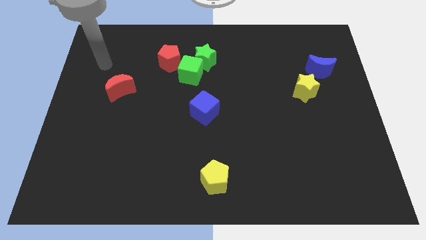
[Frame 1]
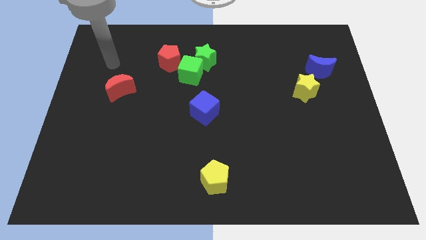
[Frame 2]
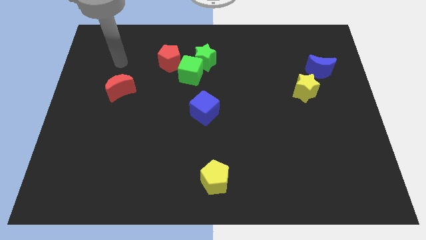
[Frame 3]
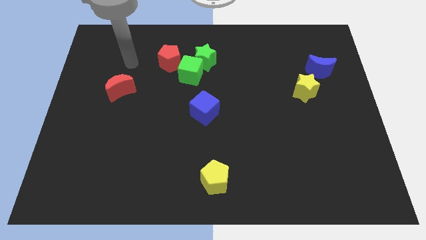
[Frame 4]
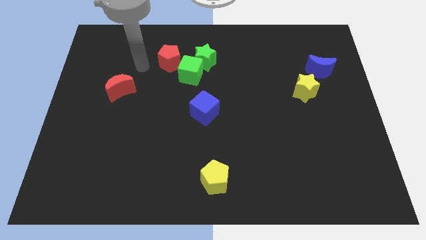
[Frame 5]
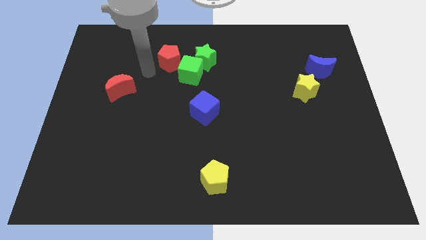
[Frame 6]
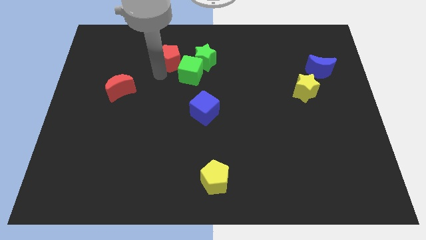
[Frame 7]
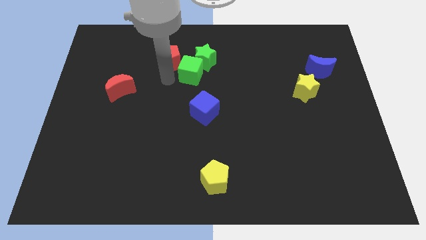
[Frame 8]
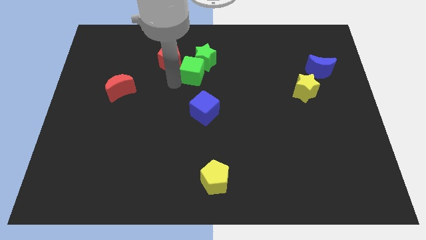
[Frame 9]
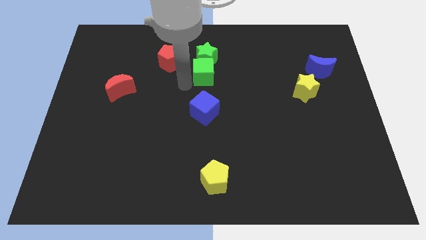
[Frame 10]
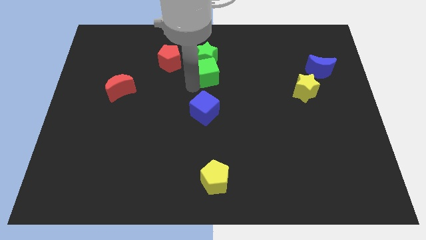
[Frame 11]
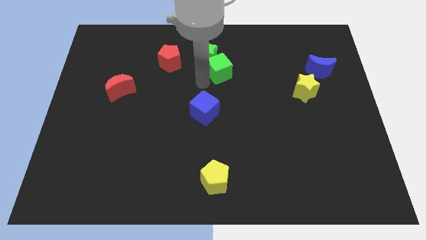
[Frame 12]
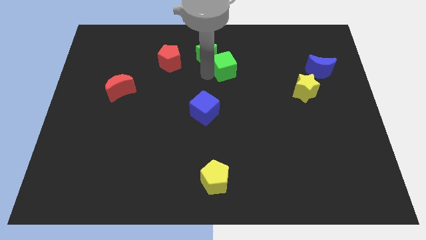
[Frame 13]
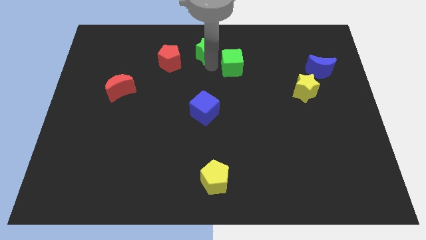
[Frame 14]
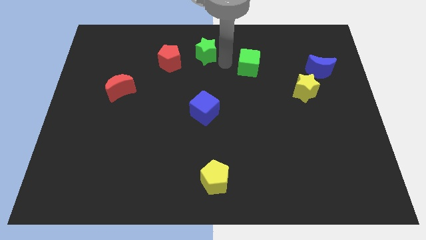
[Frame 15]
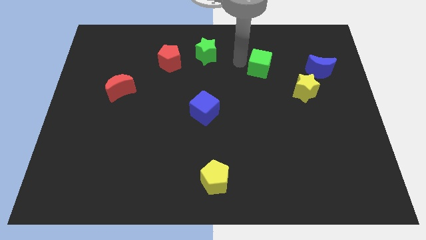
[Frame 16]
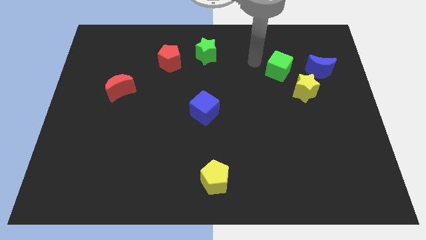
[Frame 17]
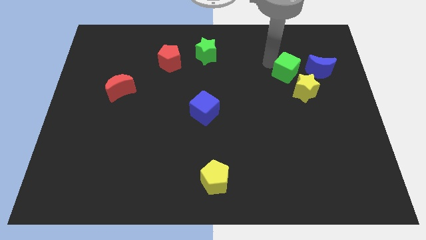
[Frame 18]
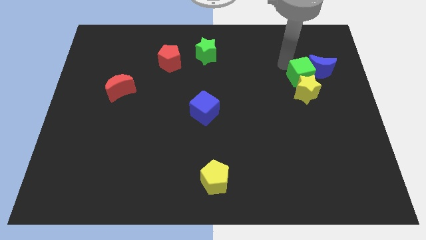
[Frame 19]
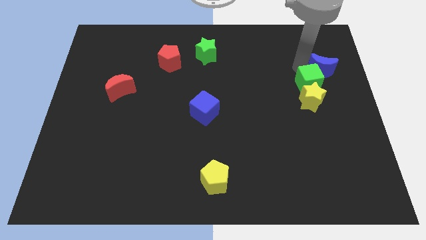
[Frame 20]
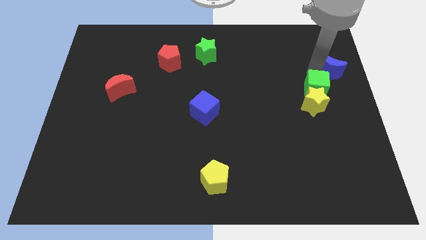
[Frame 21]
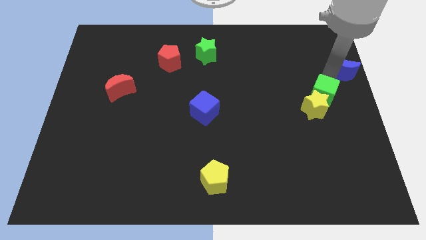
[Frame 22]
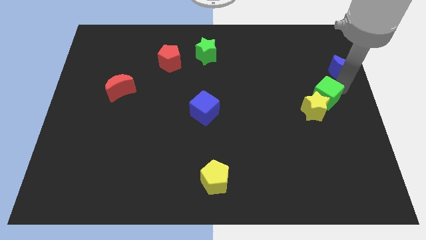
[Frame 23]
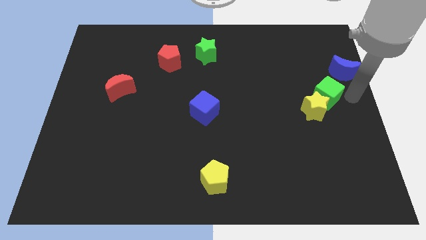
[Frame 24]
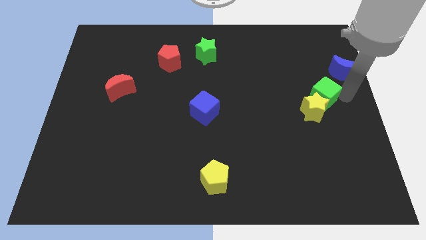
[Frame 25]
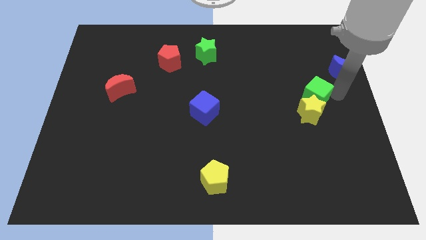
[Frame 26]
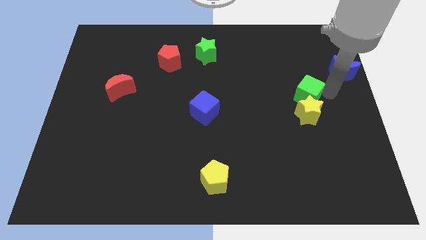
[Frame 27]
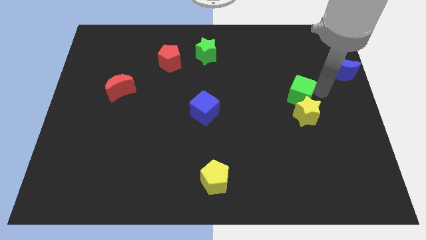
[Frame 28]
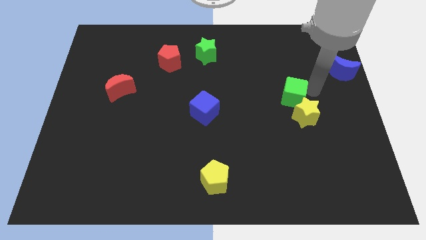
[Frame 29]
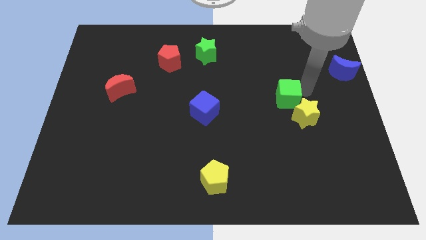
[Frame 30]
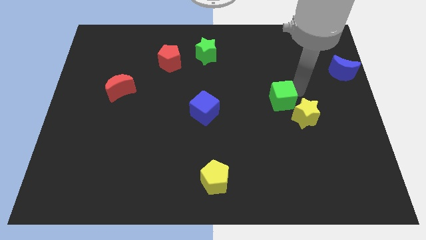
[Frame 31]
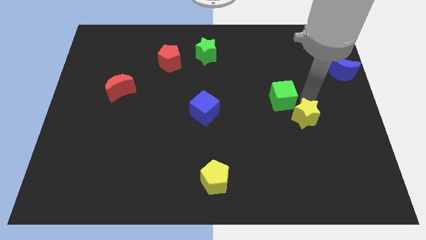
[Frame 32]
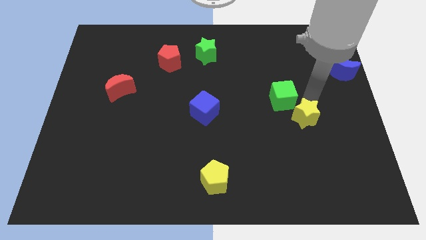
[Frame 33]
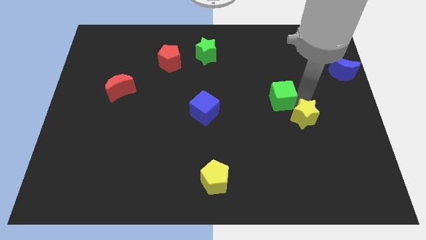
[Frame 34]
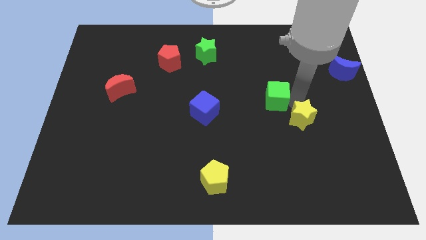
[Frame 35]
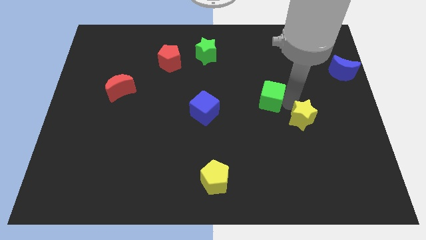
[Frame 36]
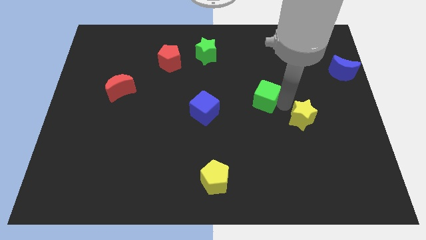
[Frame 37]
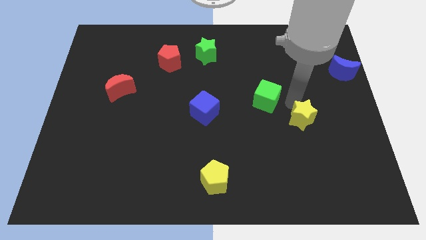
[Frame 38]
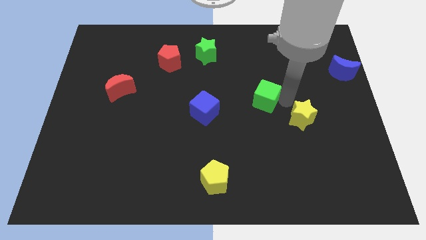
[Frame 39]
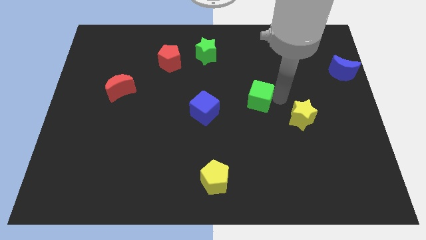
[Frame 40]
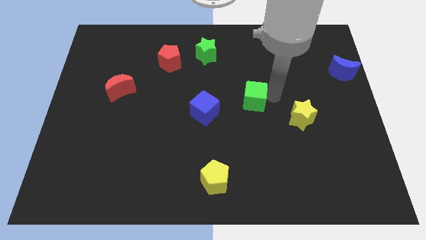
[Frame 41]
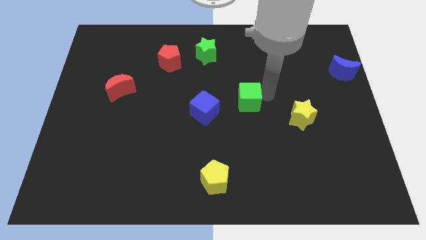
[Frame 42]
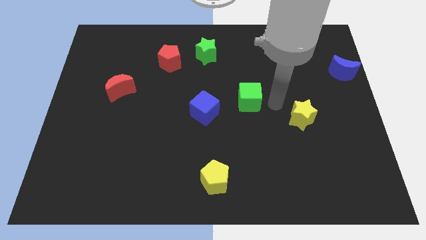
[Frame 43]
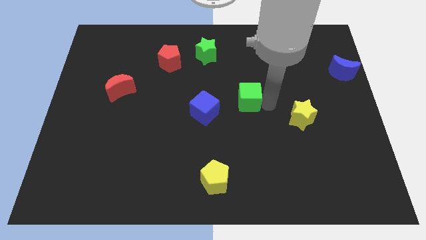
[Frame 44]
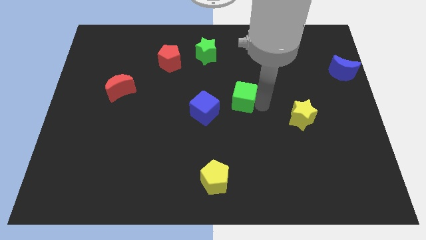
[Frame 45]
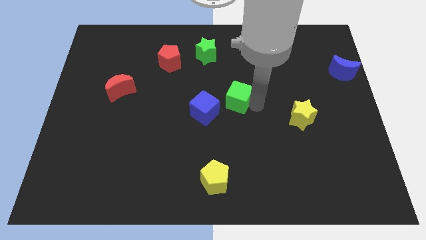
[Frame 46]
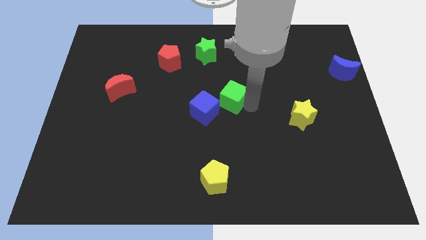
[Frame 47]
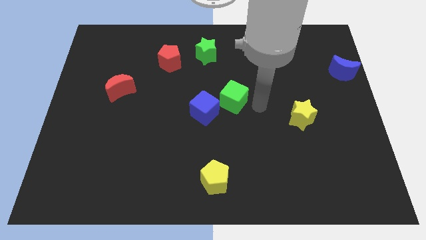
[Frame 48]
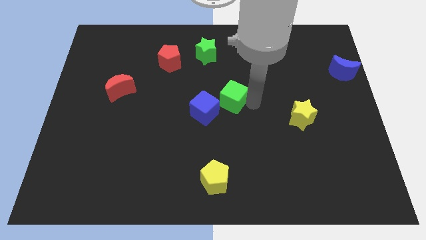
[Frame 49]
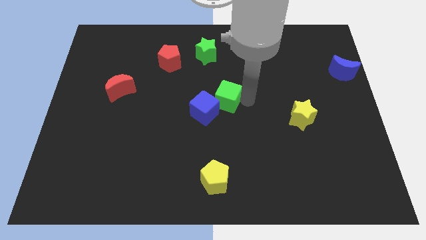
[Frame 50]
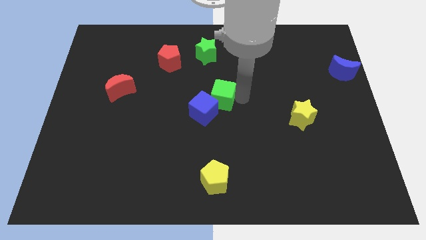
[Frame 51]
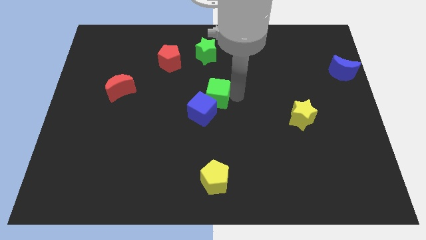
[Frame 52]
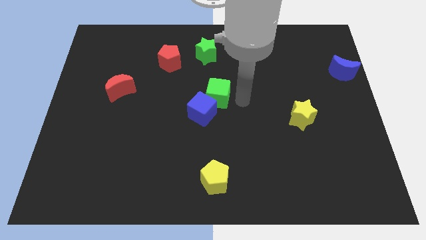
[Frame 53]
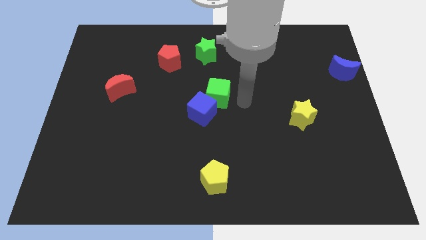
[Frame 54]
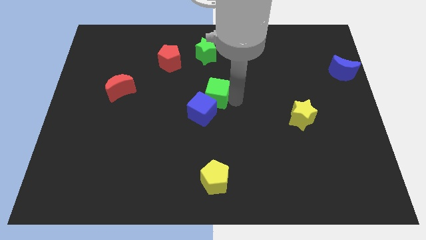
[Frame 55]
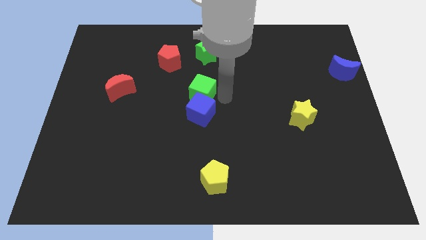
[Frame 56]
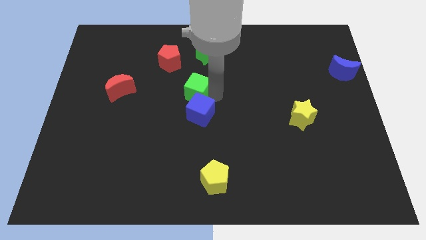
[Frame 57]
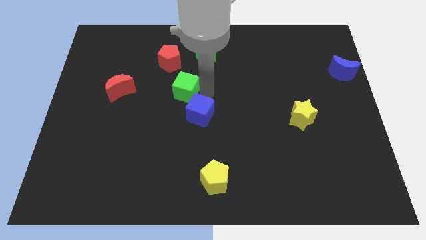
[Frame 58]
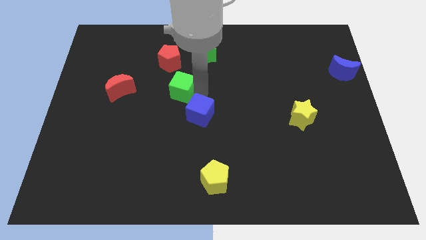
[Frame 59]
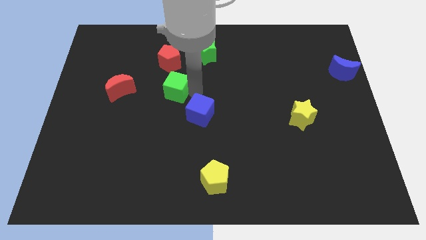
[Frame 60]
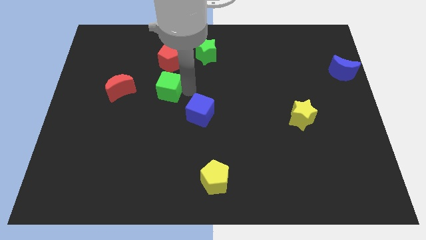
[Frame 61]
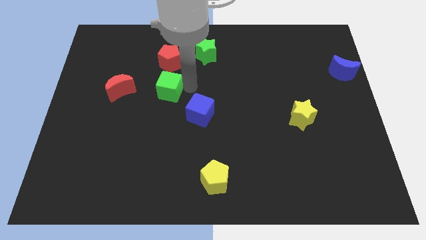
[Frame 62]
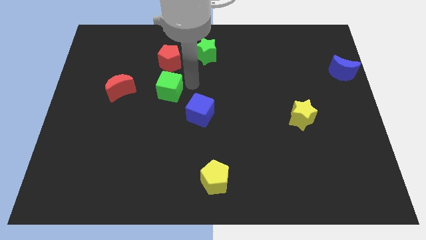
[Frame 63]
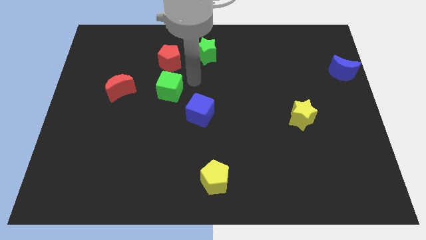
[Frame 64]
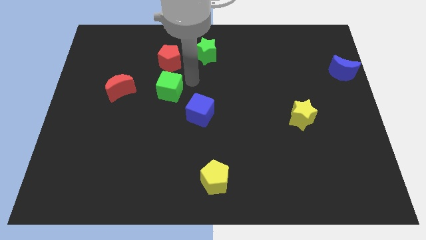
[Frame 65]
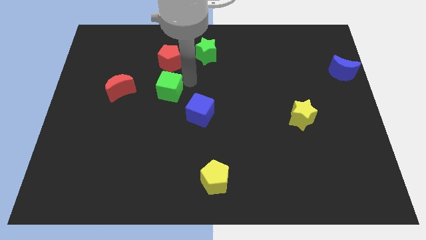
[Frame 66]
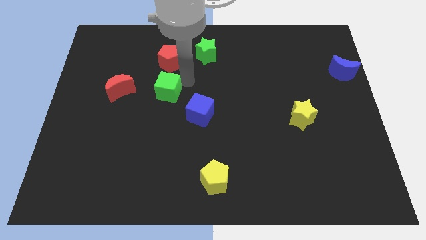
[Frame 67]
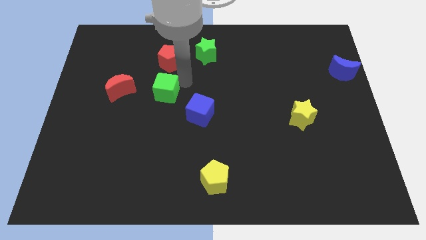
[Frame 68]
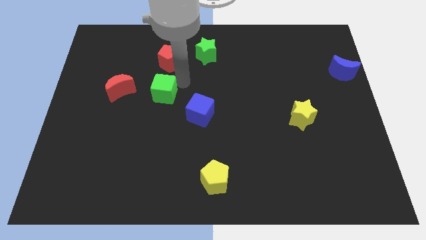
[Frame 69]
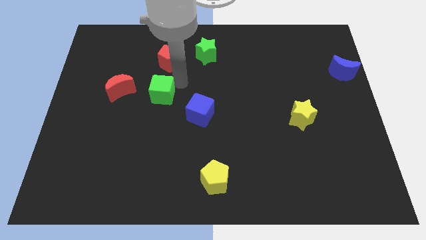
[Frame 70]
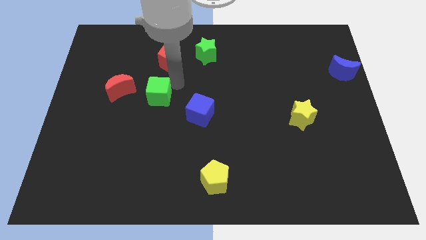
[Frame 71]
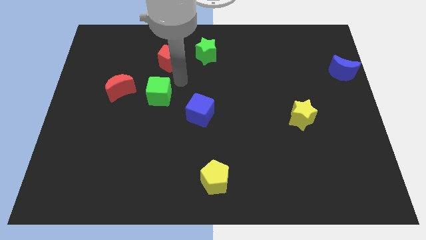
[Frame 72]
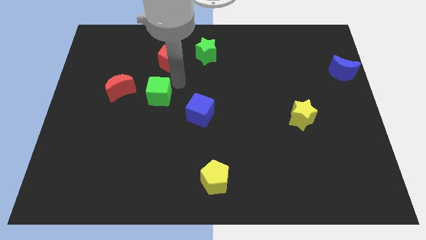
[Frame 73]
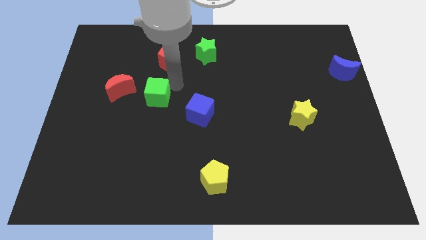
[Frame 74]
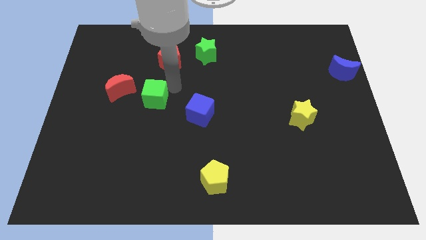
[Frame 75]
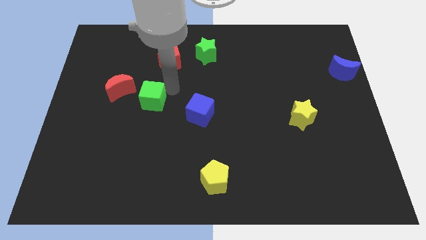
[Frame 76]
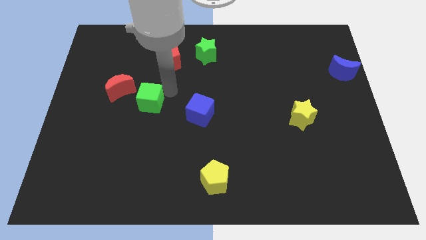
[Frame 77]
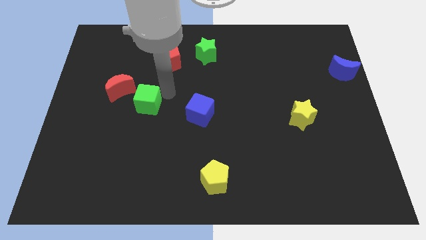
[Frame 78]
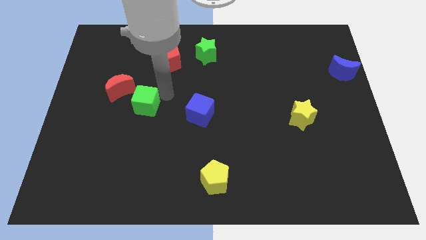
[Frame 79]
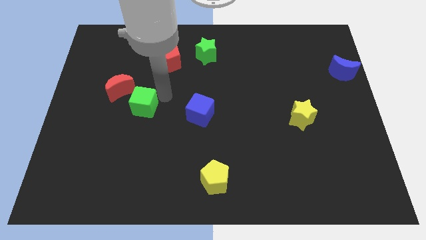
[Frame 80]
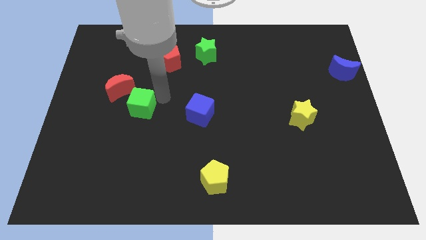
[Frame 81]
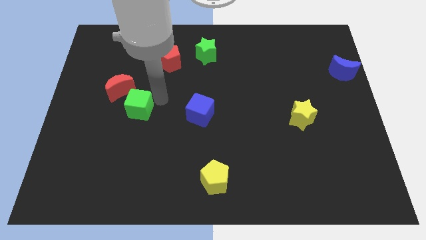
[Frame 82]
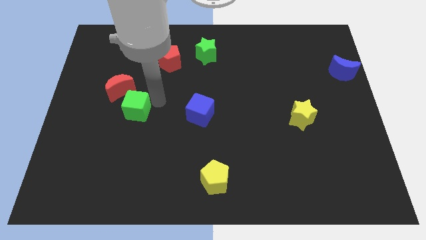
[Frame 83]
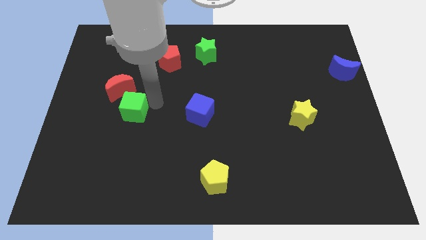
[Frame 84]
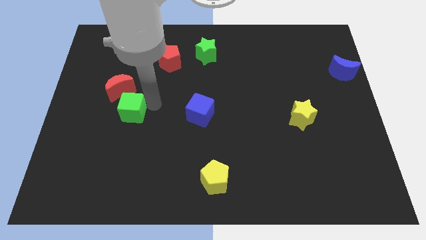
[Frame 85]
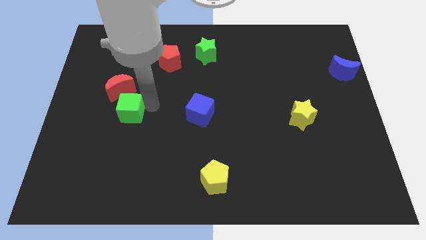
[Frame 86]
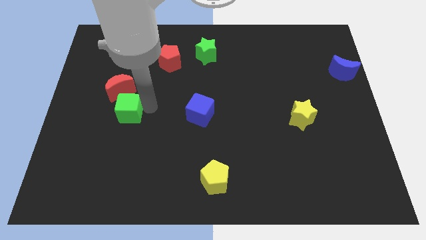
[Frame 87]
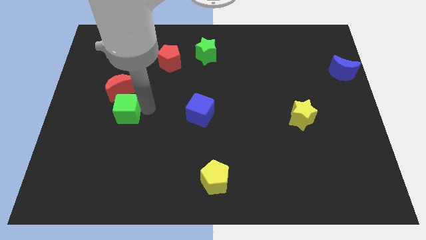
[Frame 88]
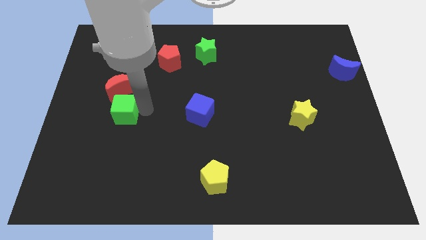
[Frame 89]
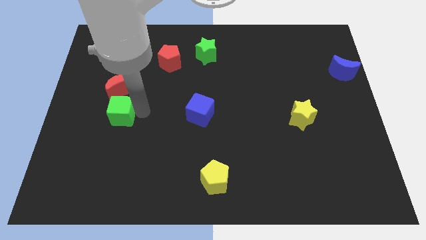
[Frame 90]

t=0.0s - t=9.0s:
move the green cube downwards and left diagonally
